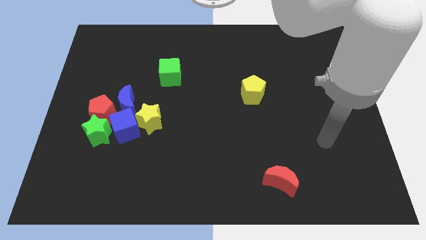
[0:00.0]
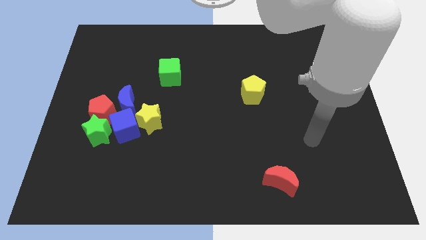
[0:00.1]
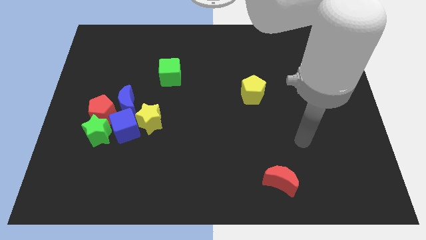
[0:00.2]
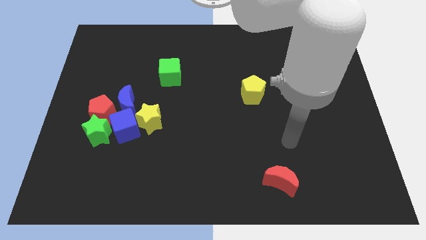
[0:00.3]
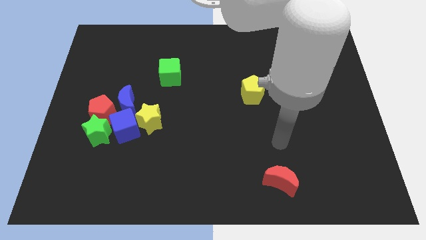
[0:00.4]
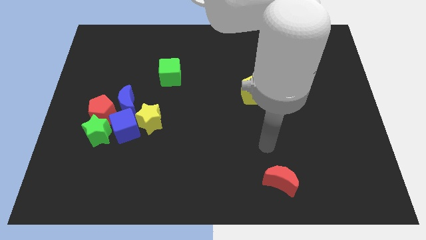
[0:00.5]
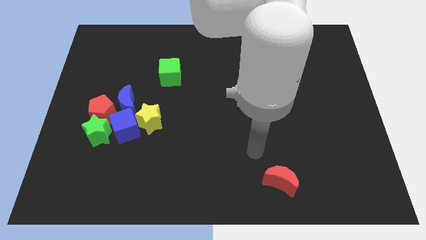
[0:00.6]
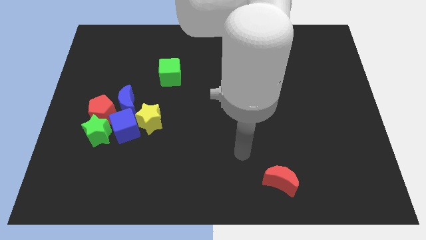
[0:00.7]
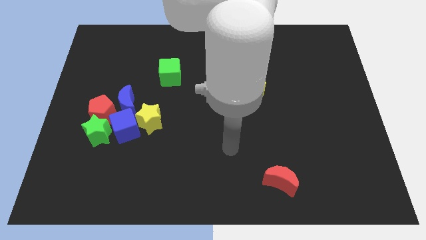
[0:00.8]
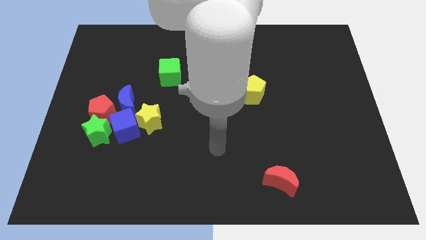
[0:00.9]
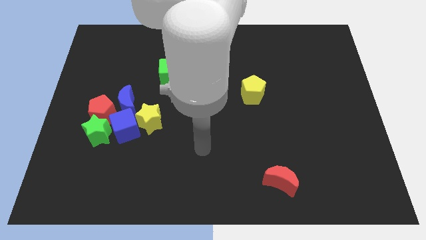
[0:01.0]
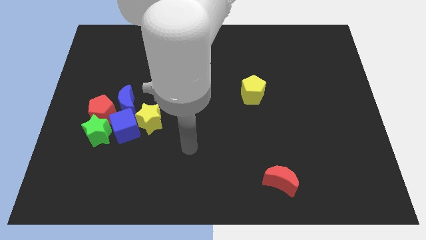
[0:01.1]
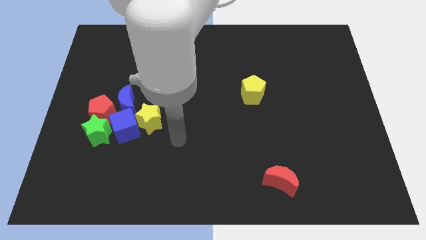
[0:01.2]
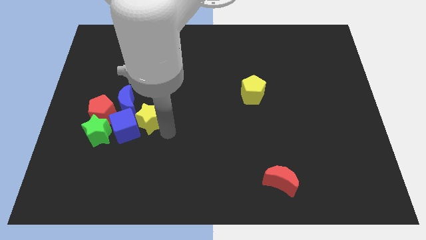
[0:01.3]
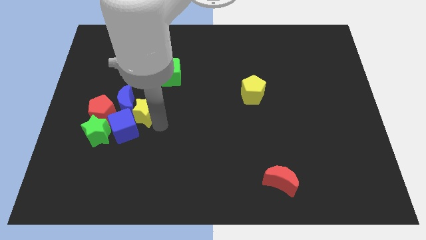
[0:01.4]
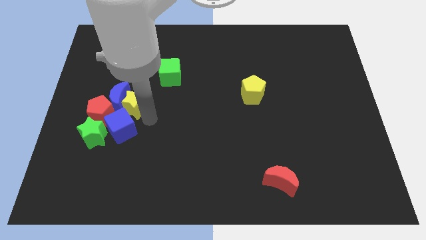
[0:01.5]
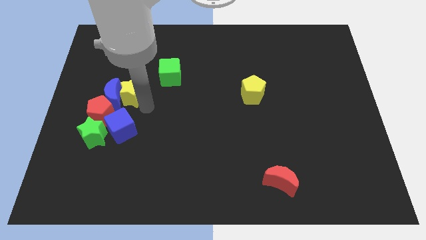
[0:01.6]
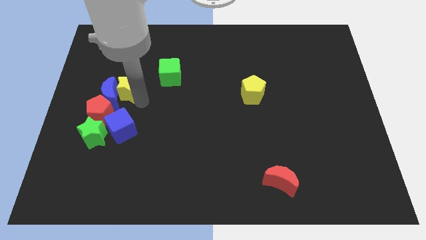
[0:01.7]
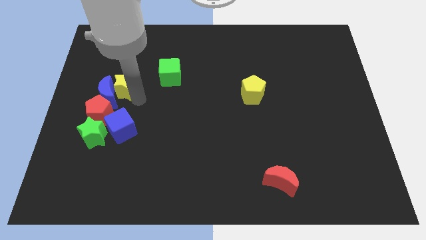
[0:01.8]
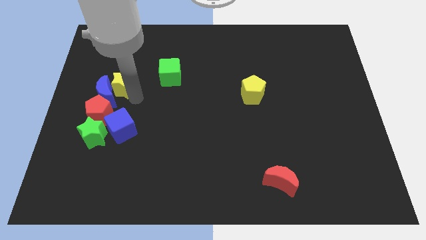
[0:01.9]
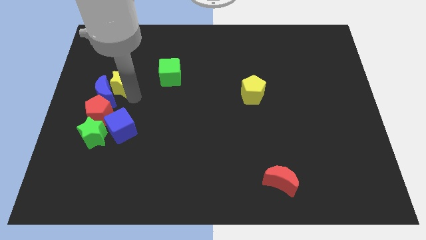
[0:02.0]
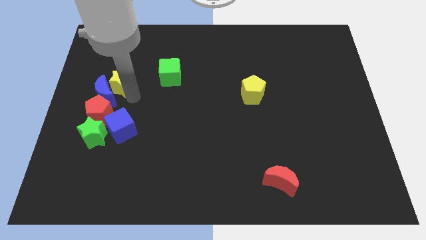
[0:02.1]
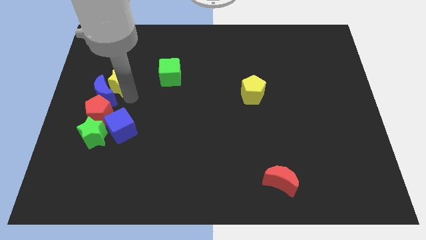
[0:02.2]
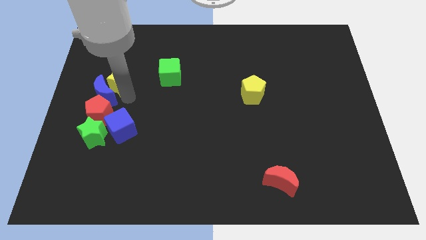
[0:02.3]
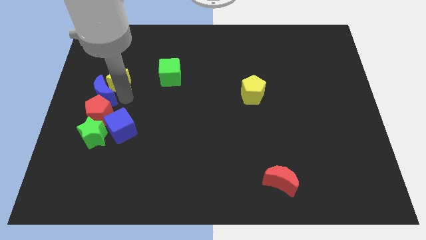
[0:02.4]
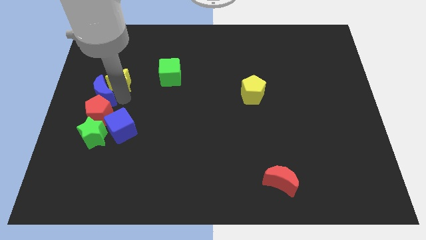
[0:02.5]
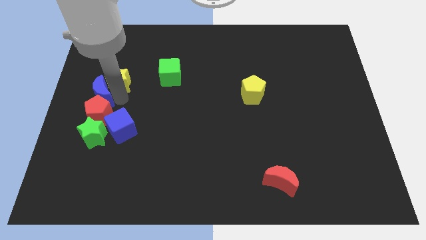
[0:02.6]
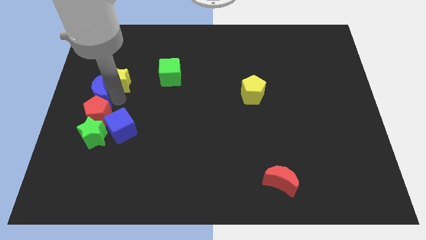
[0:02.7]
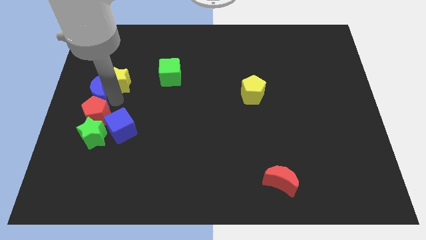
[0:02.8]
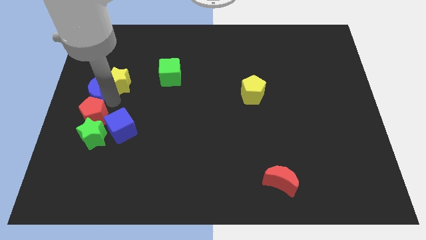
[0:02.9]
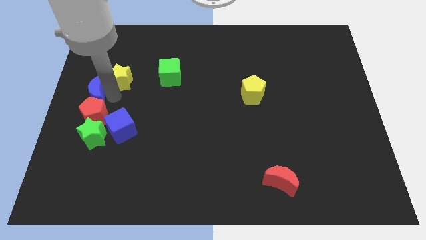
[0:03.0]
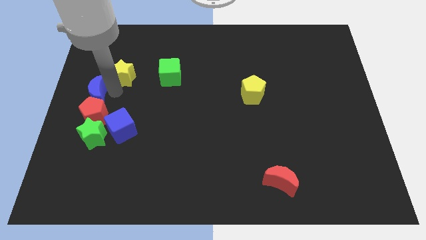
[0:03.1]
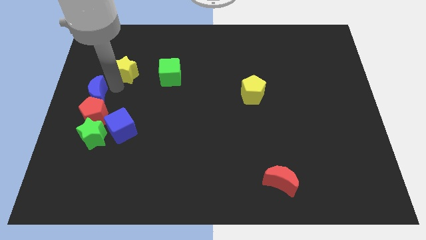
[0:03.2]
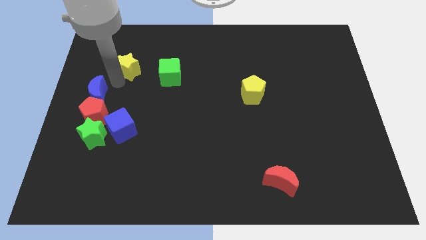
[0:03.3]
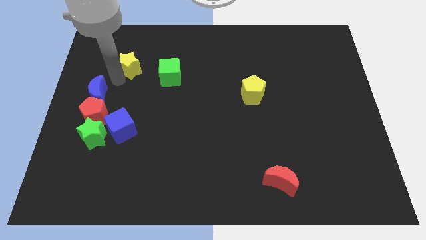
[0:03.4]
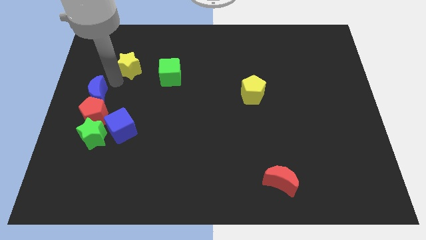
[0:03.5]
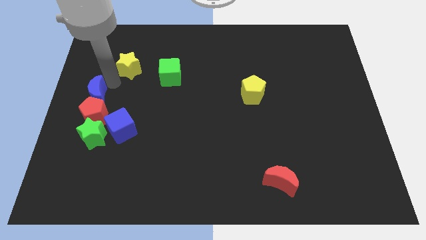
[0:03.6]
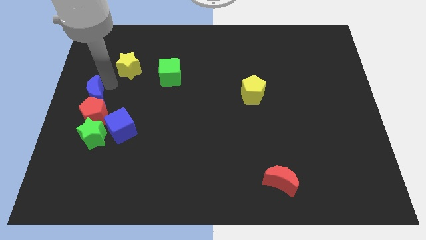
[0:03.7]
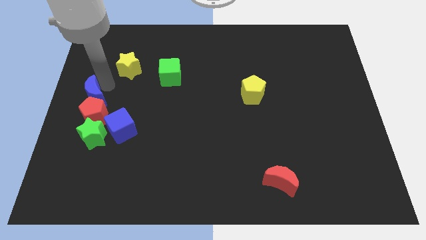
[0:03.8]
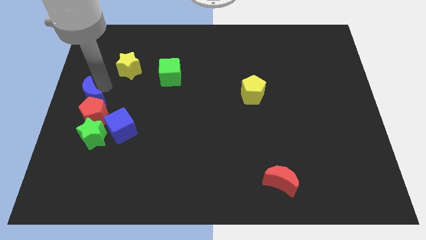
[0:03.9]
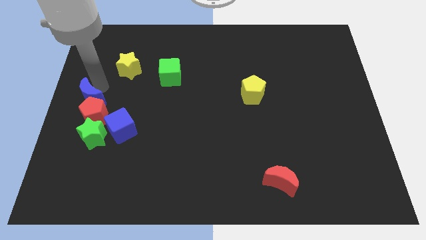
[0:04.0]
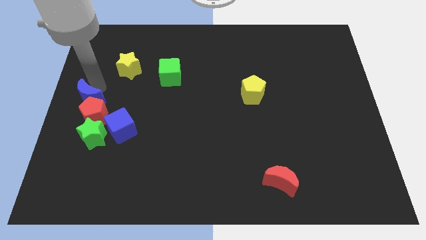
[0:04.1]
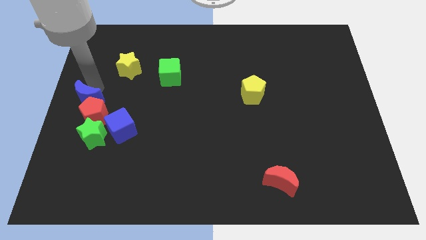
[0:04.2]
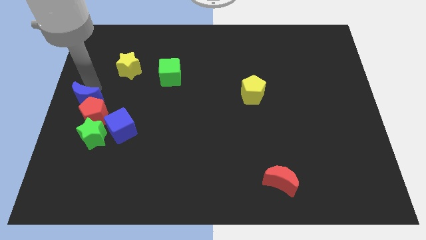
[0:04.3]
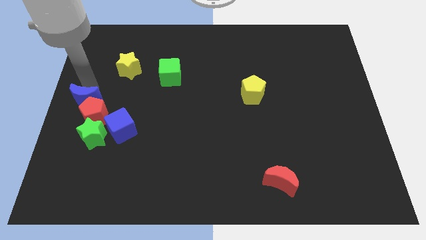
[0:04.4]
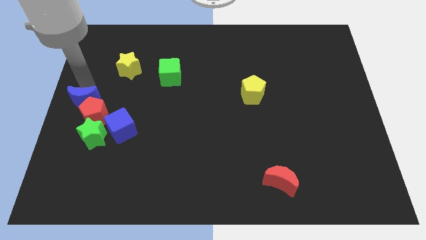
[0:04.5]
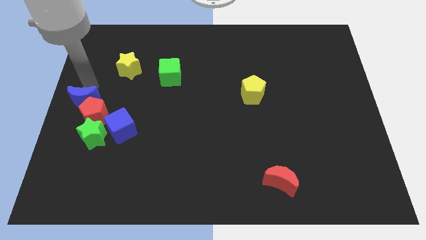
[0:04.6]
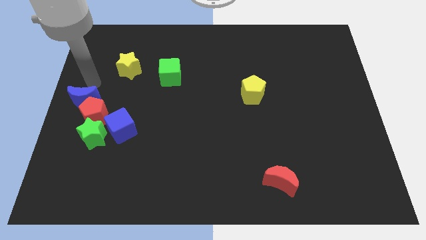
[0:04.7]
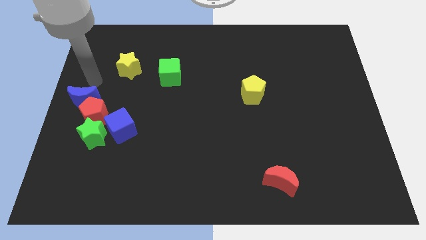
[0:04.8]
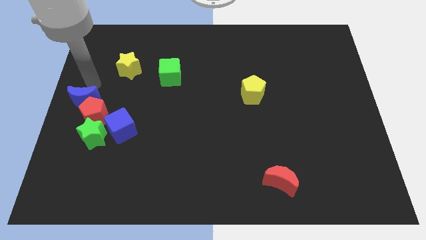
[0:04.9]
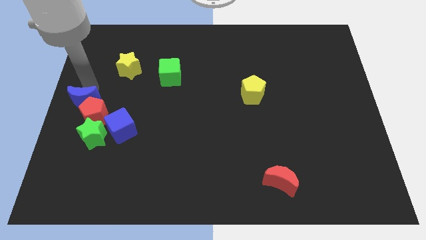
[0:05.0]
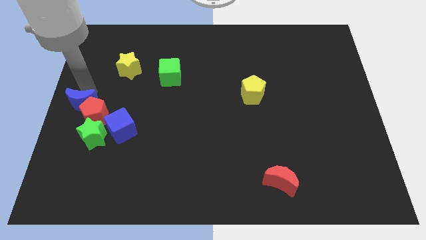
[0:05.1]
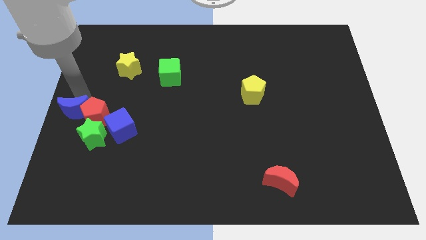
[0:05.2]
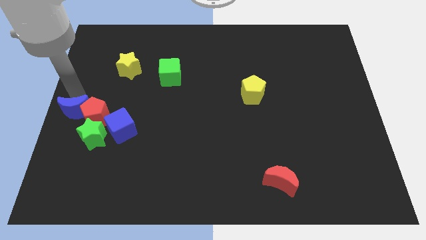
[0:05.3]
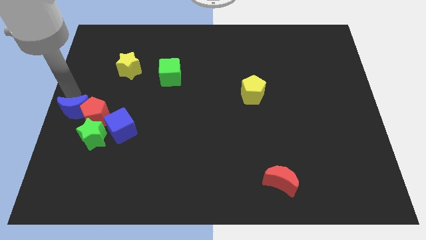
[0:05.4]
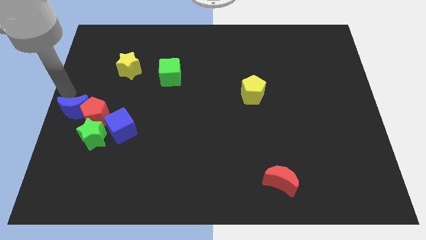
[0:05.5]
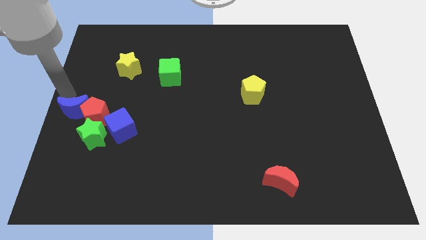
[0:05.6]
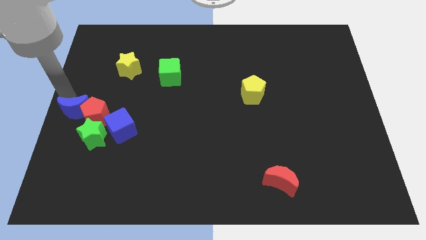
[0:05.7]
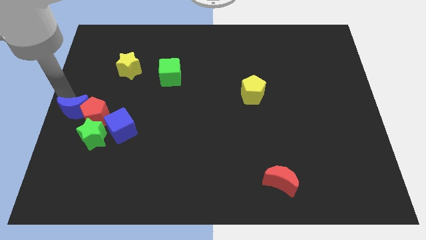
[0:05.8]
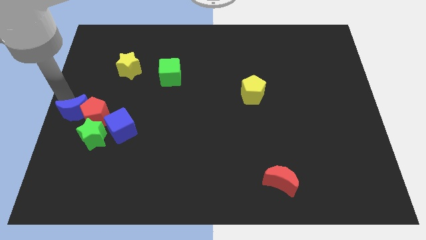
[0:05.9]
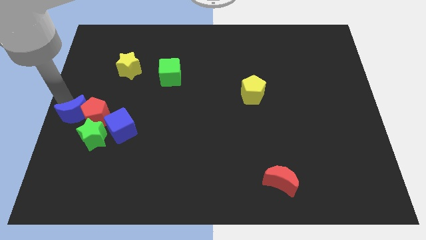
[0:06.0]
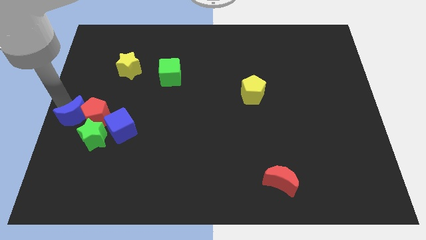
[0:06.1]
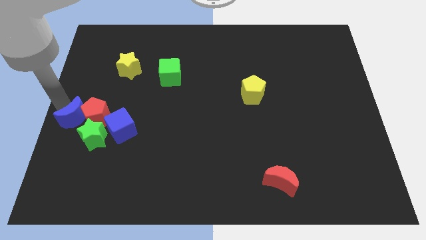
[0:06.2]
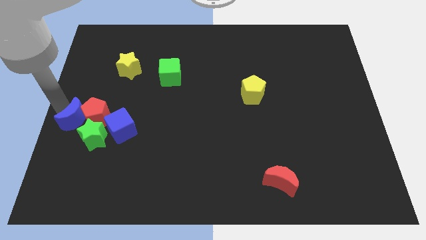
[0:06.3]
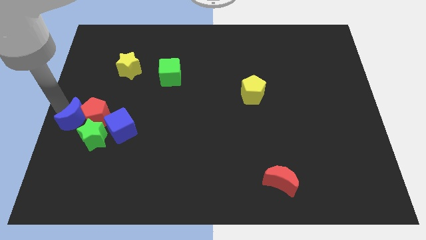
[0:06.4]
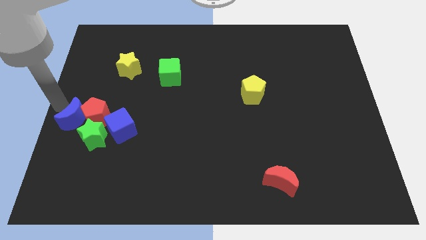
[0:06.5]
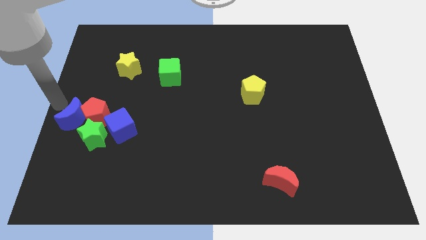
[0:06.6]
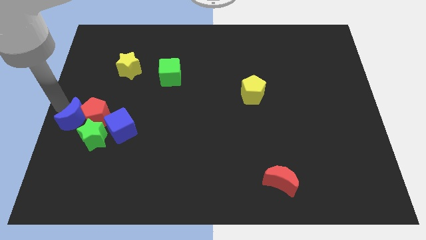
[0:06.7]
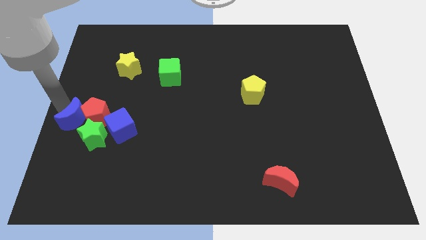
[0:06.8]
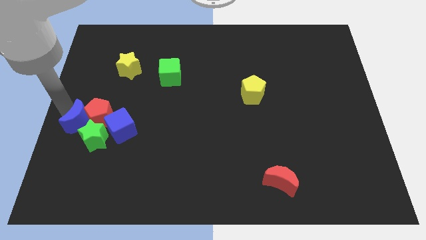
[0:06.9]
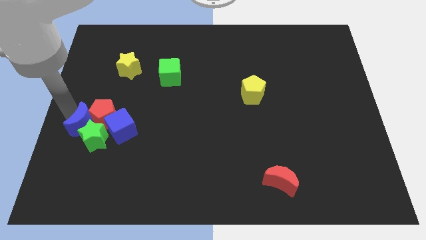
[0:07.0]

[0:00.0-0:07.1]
move the blue moon close to the green star
